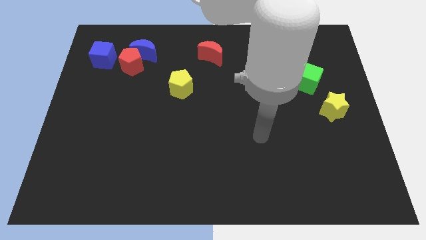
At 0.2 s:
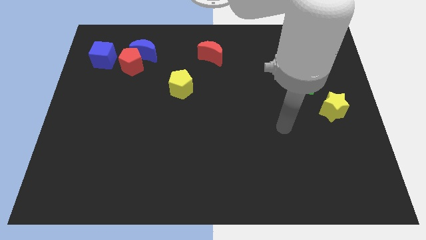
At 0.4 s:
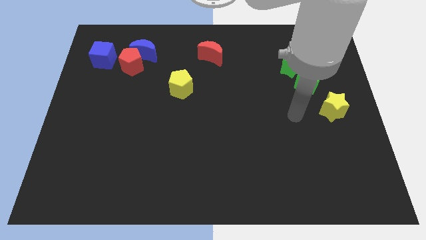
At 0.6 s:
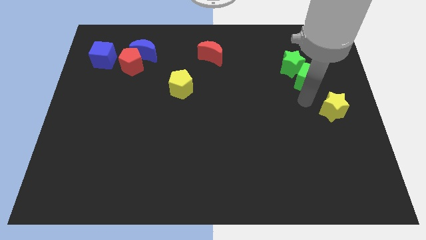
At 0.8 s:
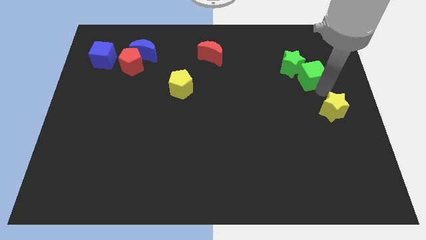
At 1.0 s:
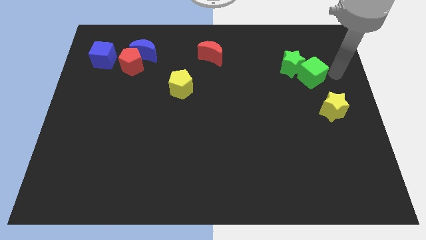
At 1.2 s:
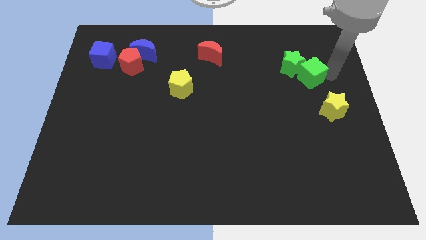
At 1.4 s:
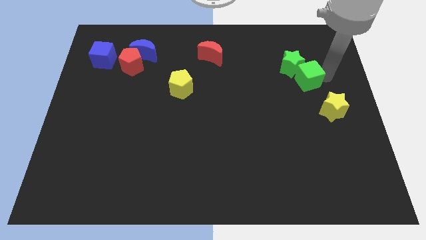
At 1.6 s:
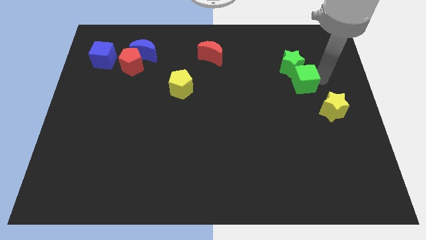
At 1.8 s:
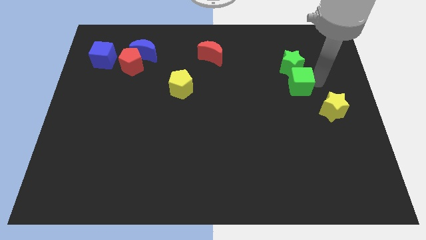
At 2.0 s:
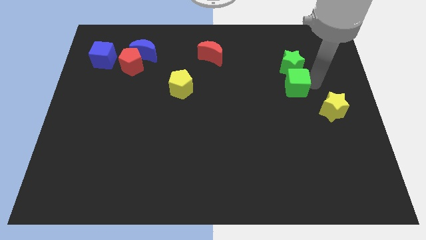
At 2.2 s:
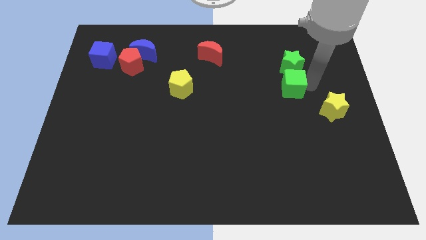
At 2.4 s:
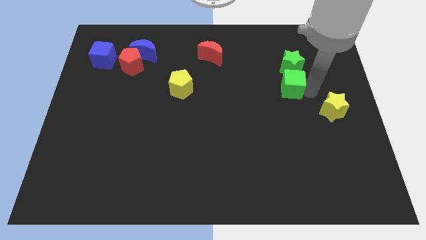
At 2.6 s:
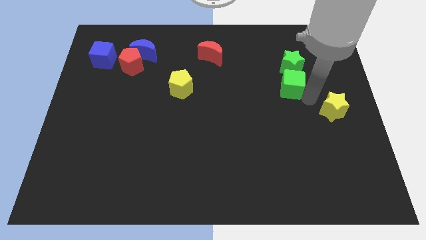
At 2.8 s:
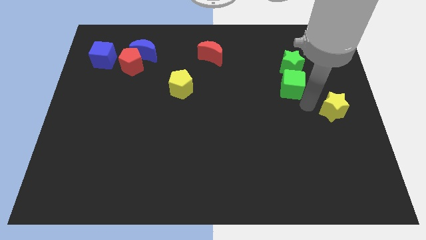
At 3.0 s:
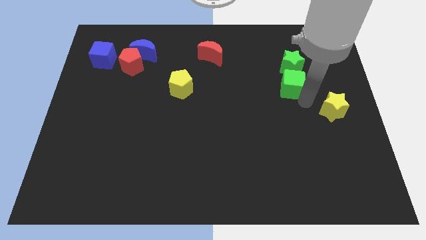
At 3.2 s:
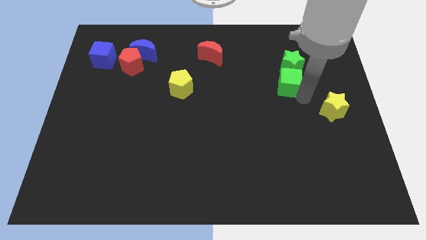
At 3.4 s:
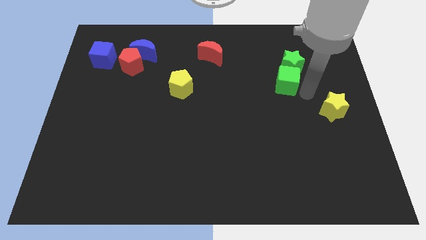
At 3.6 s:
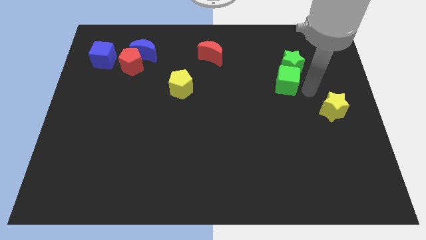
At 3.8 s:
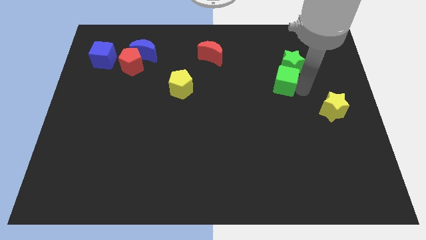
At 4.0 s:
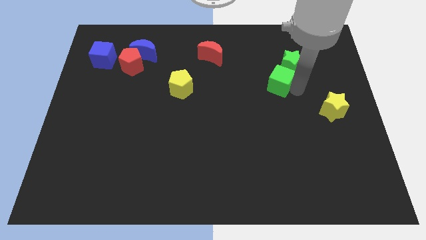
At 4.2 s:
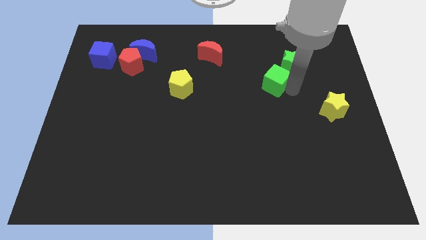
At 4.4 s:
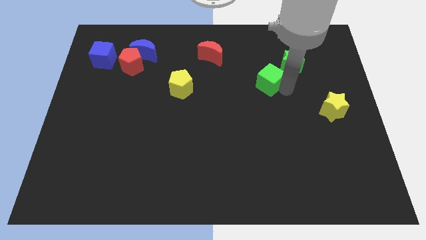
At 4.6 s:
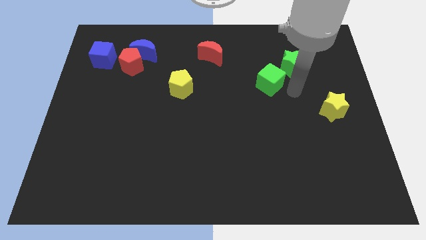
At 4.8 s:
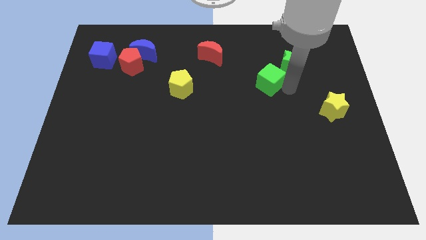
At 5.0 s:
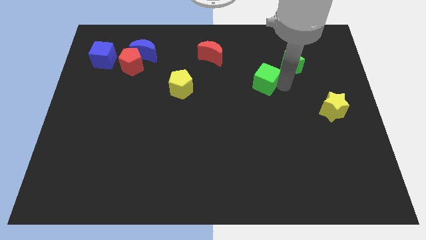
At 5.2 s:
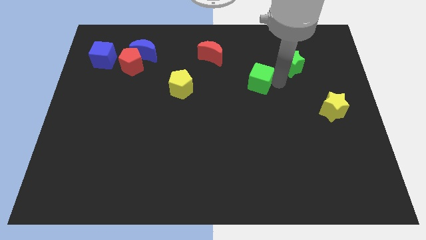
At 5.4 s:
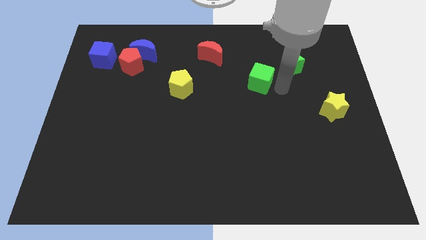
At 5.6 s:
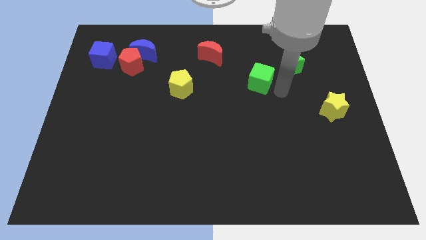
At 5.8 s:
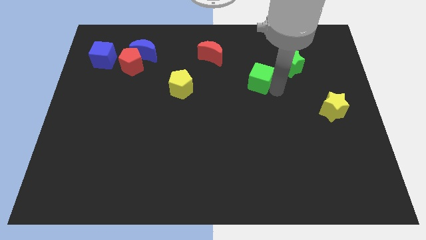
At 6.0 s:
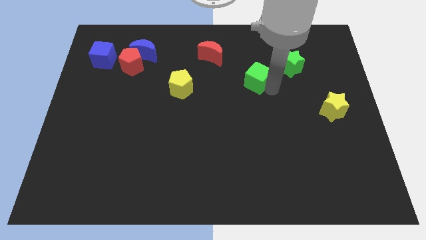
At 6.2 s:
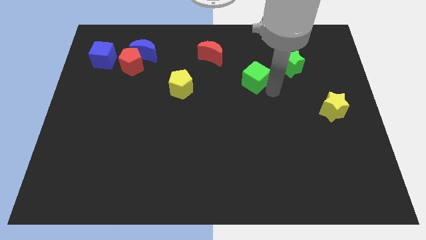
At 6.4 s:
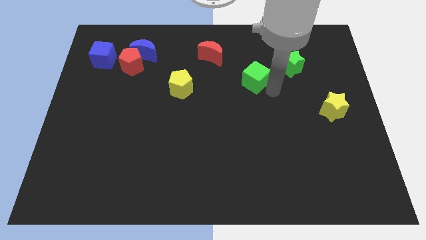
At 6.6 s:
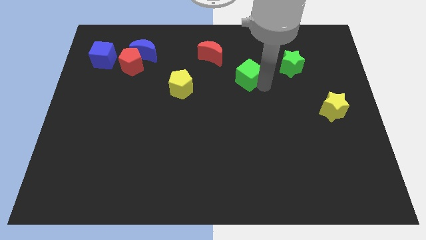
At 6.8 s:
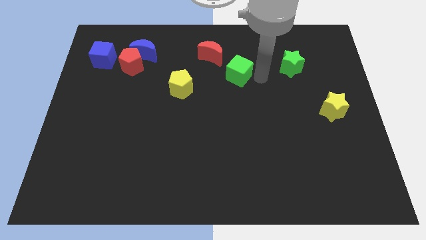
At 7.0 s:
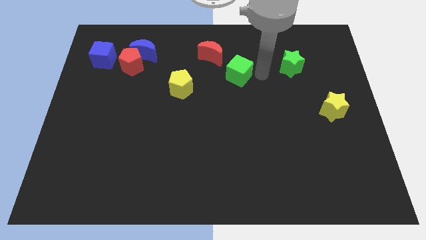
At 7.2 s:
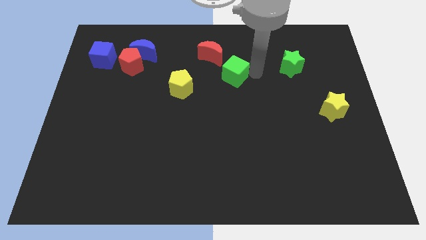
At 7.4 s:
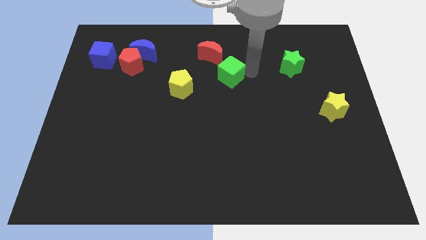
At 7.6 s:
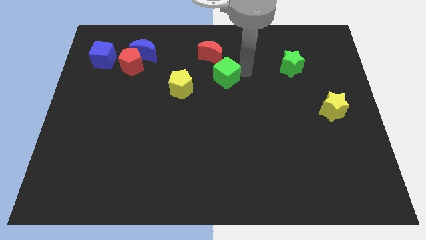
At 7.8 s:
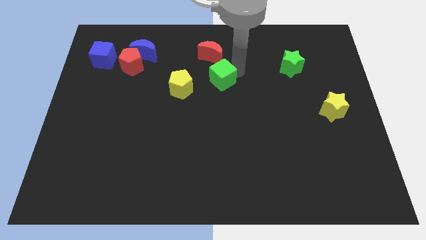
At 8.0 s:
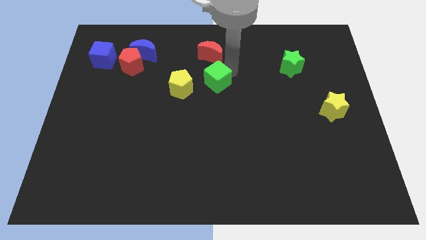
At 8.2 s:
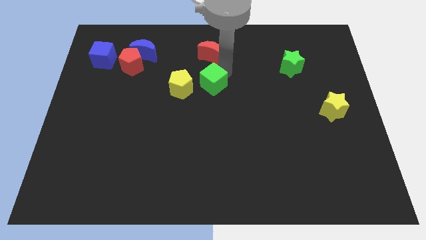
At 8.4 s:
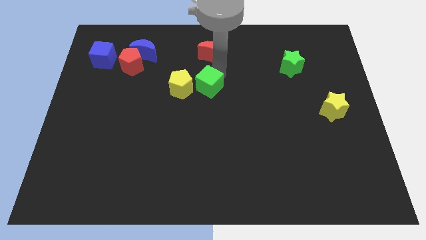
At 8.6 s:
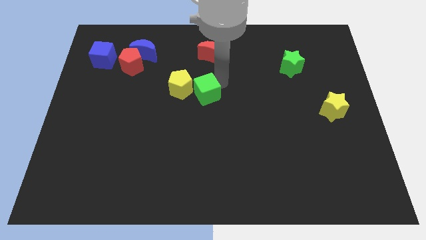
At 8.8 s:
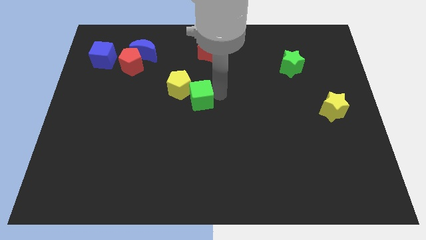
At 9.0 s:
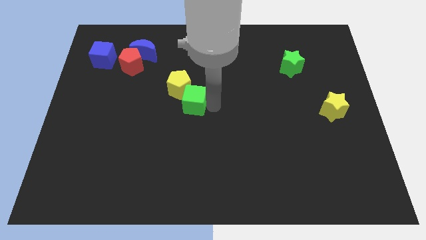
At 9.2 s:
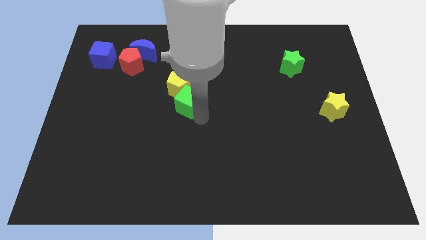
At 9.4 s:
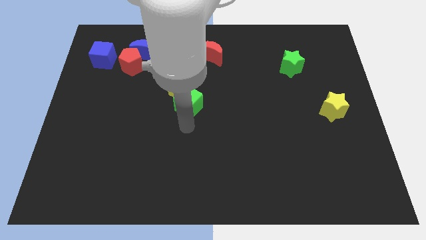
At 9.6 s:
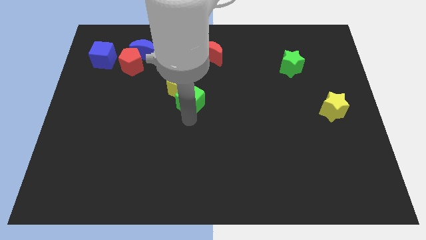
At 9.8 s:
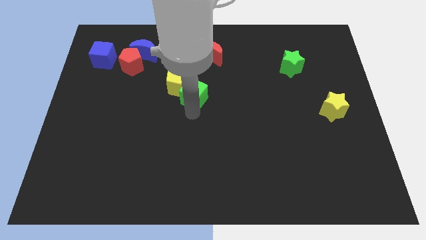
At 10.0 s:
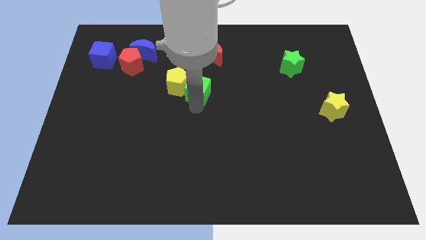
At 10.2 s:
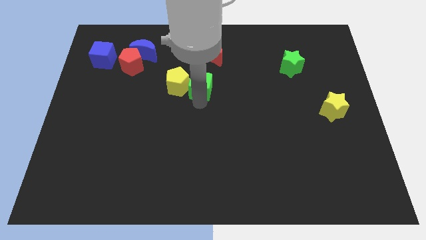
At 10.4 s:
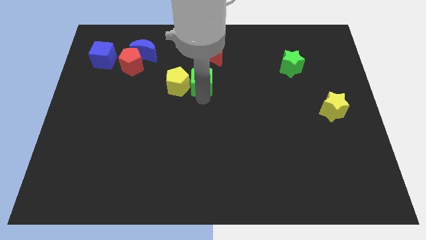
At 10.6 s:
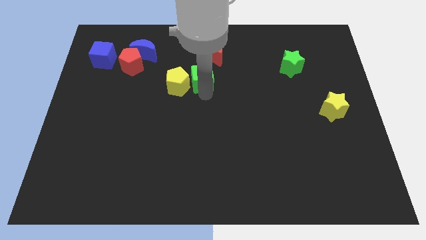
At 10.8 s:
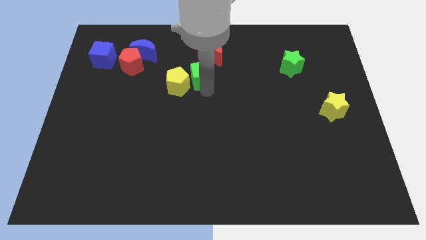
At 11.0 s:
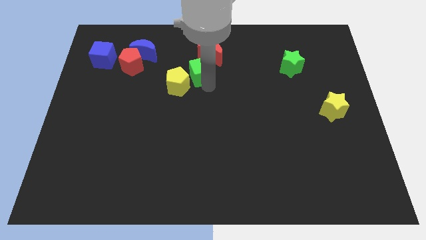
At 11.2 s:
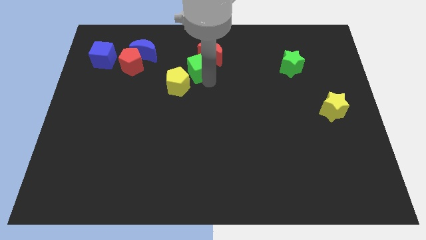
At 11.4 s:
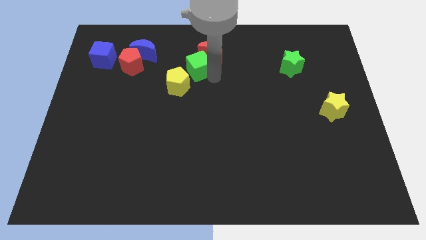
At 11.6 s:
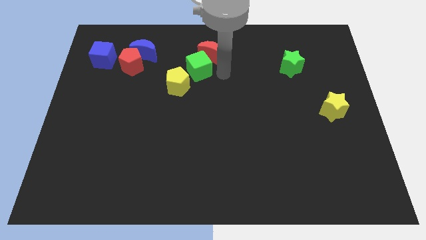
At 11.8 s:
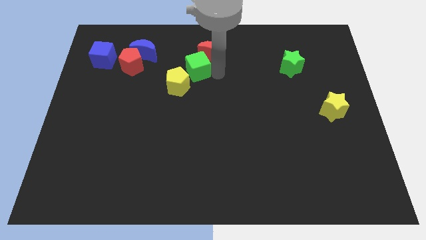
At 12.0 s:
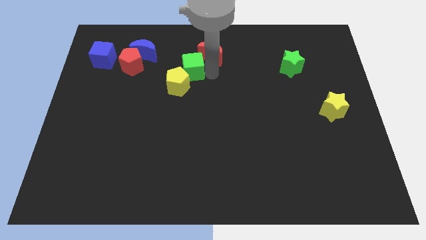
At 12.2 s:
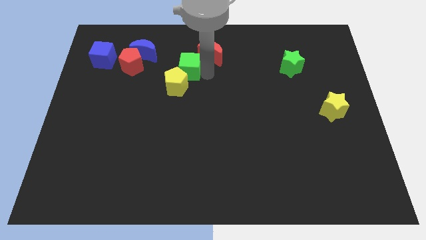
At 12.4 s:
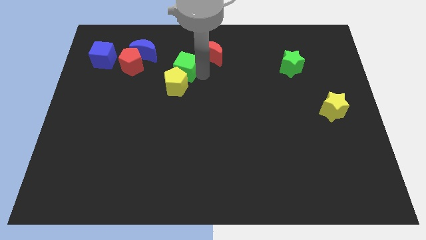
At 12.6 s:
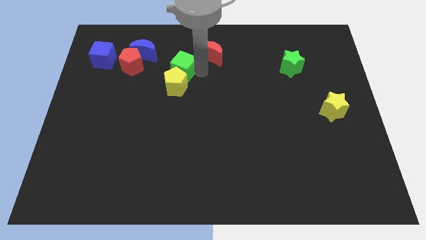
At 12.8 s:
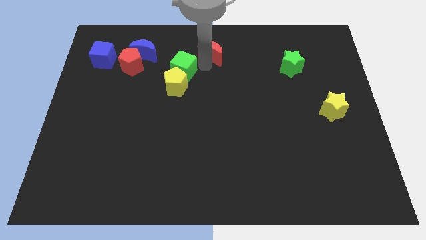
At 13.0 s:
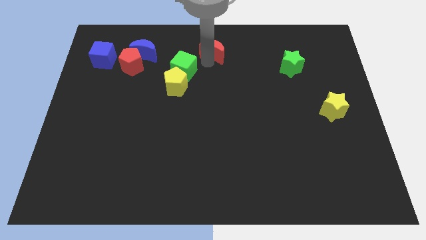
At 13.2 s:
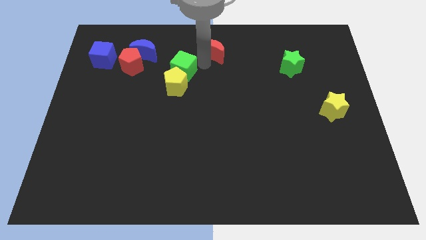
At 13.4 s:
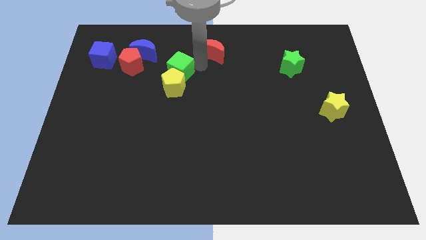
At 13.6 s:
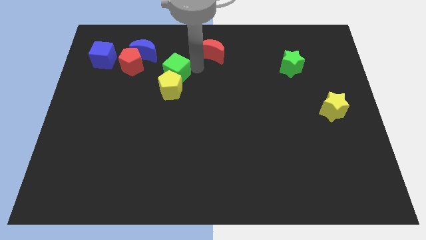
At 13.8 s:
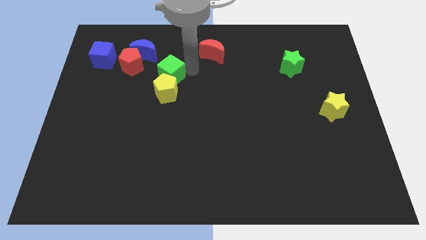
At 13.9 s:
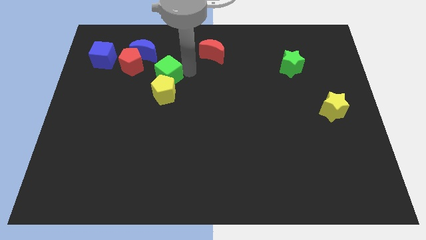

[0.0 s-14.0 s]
slide the green cube to the bottom right of the red pentagon
